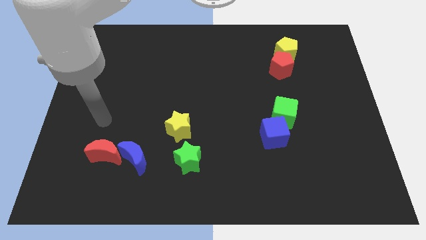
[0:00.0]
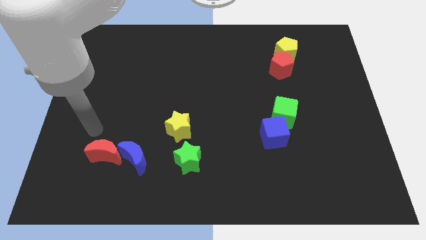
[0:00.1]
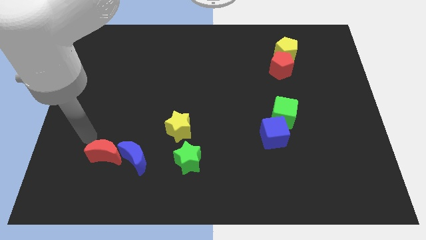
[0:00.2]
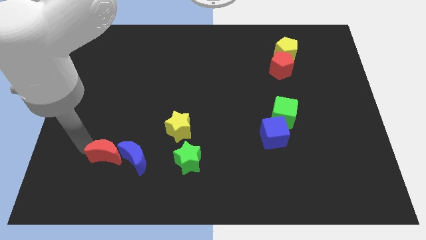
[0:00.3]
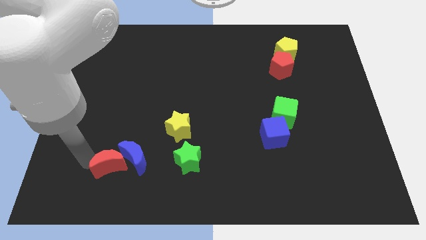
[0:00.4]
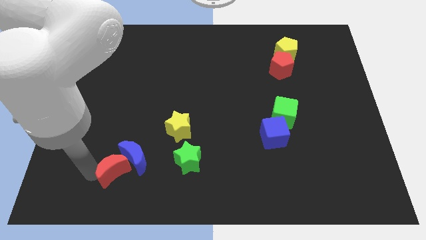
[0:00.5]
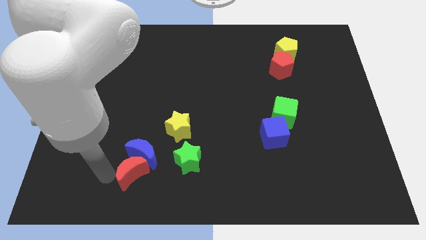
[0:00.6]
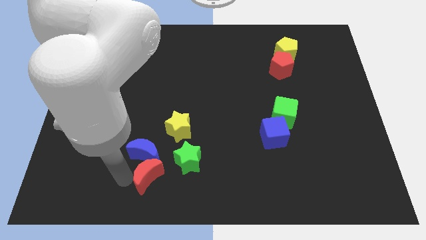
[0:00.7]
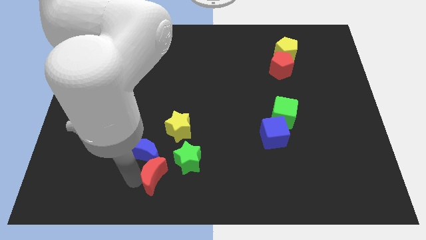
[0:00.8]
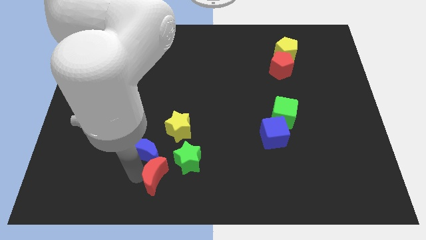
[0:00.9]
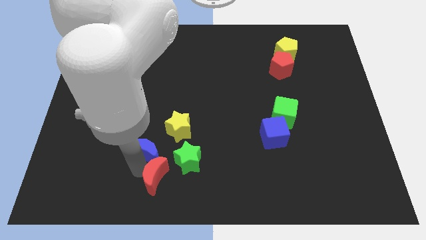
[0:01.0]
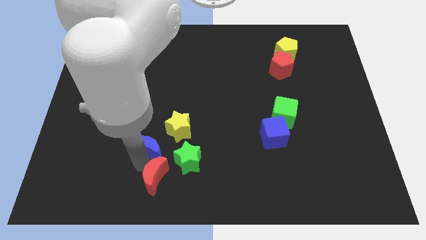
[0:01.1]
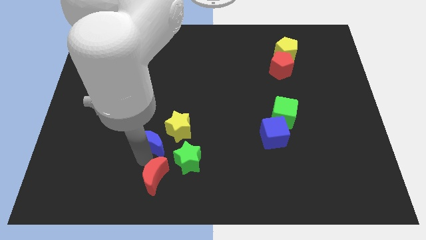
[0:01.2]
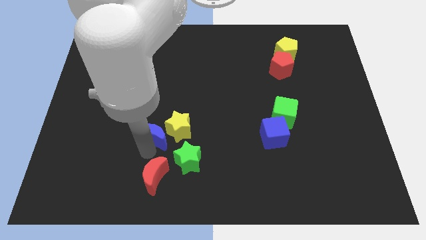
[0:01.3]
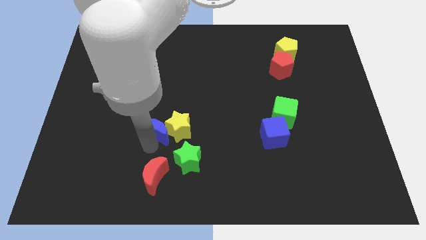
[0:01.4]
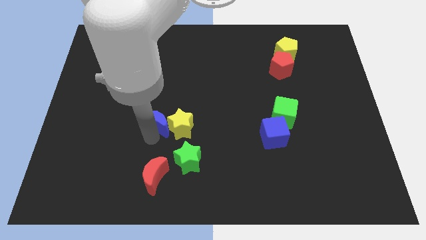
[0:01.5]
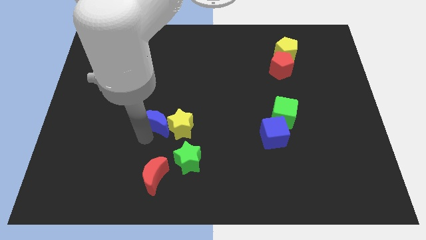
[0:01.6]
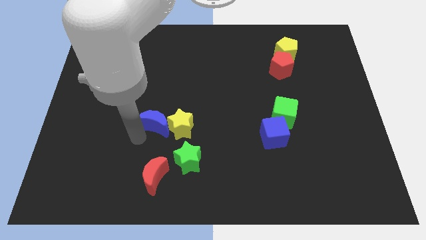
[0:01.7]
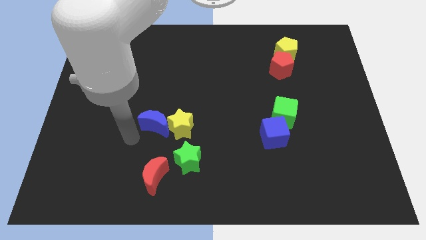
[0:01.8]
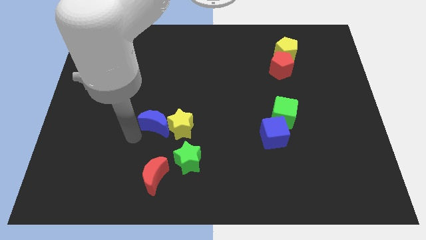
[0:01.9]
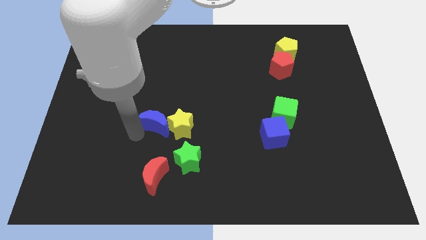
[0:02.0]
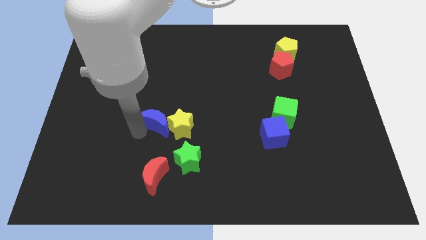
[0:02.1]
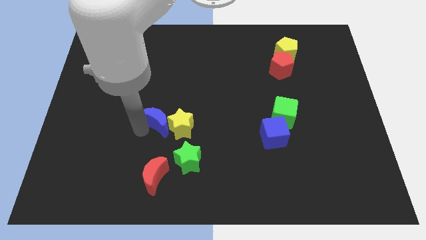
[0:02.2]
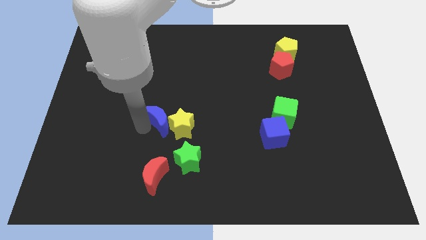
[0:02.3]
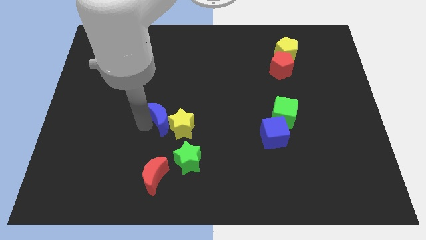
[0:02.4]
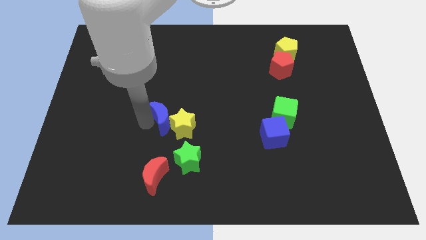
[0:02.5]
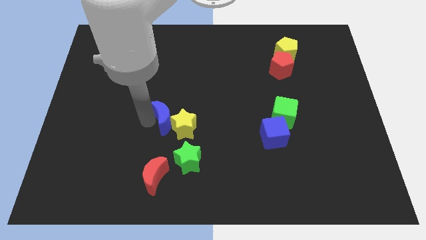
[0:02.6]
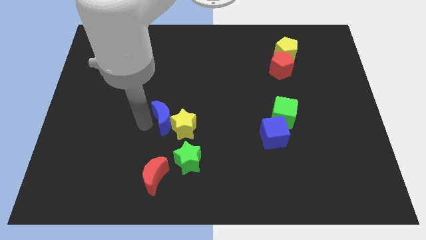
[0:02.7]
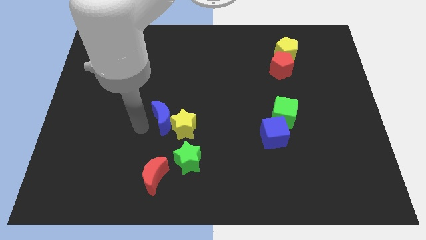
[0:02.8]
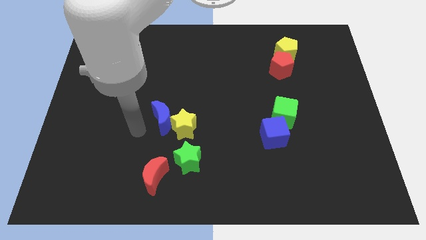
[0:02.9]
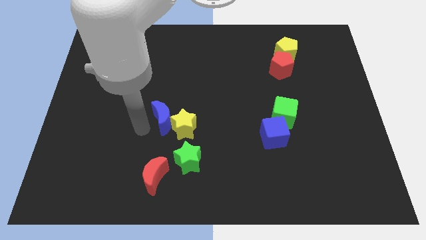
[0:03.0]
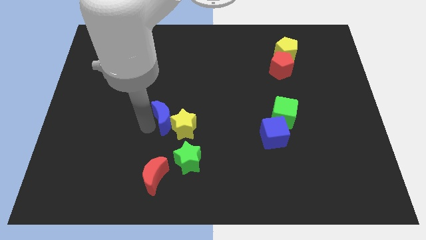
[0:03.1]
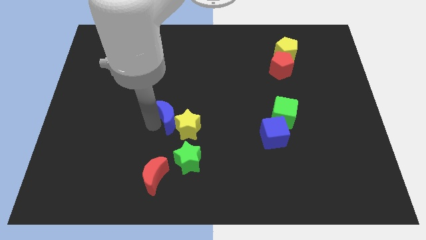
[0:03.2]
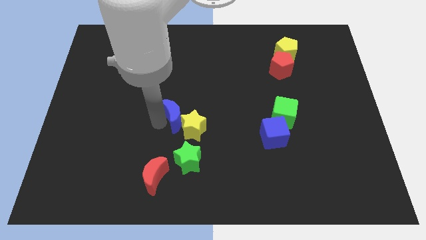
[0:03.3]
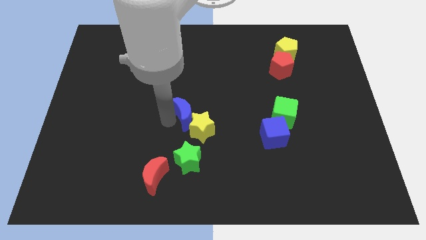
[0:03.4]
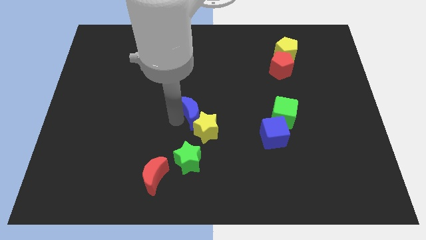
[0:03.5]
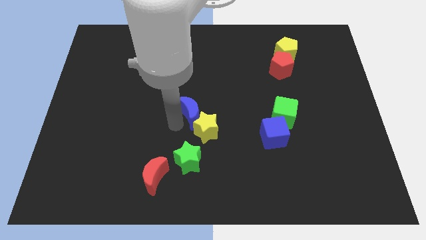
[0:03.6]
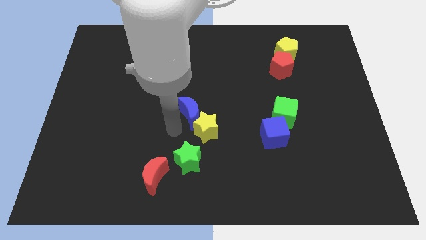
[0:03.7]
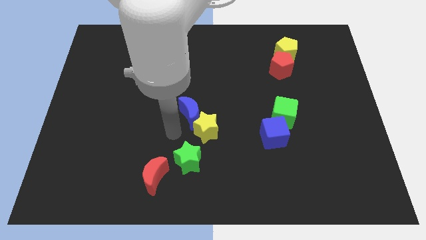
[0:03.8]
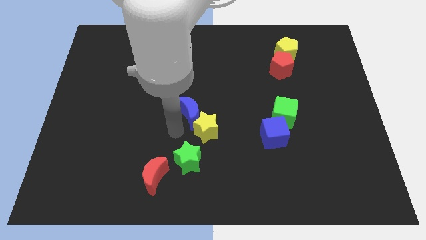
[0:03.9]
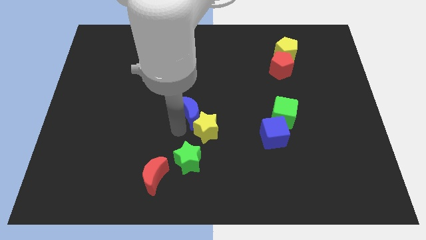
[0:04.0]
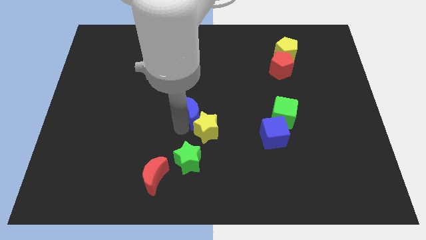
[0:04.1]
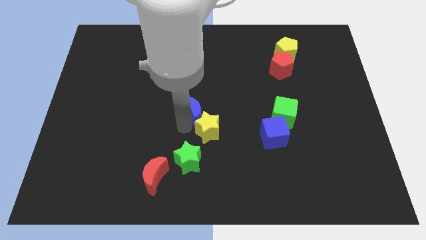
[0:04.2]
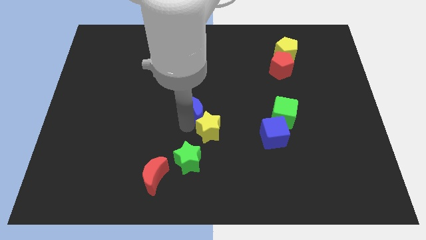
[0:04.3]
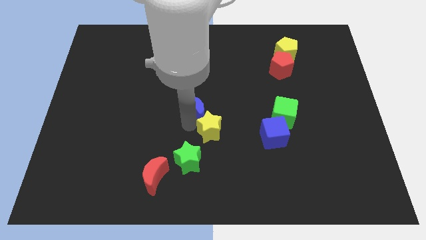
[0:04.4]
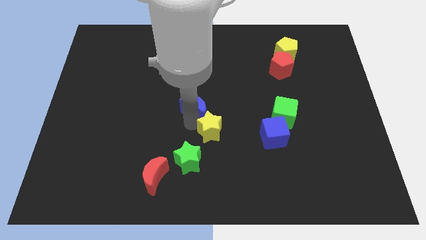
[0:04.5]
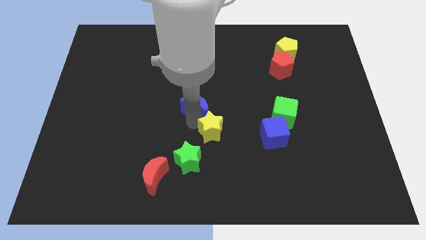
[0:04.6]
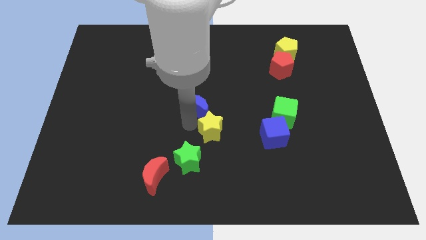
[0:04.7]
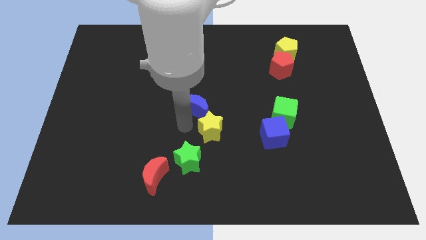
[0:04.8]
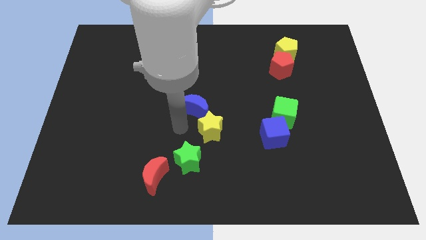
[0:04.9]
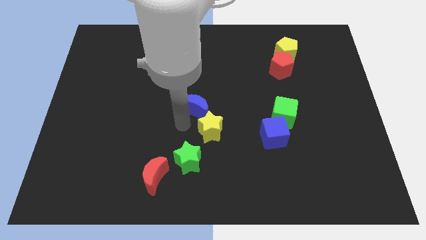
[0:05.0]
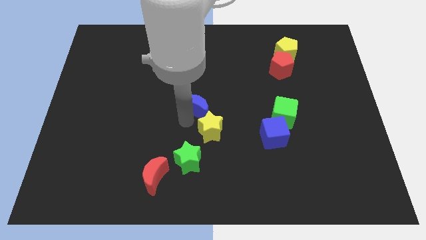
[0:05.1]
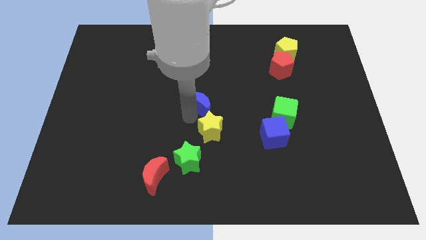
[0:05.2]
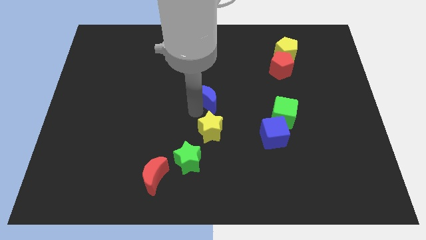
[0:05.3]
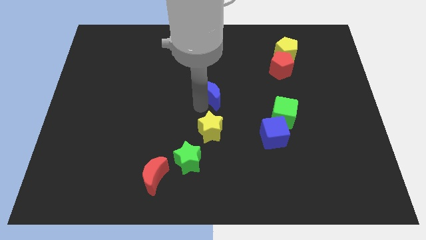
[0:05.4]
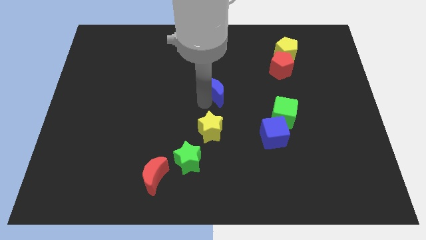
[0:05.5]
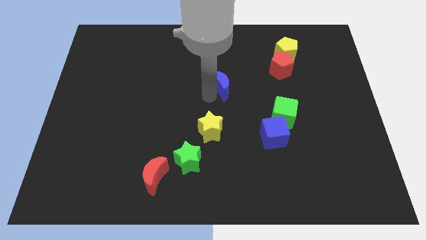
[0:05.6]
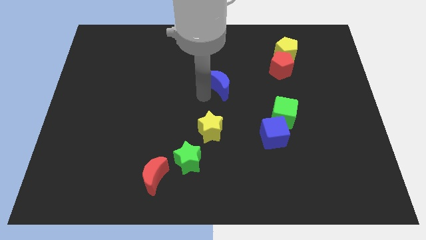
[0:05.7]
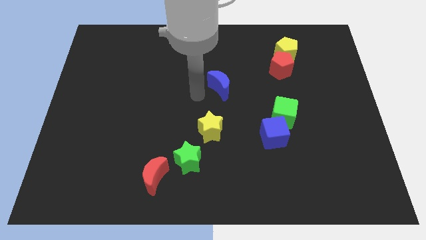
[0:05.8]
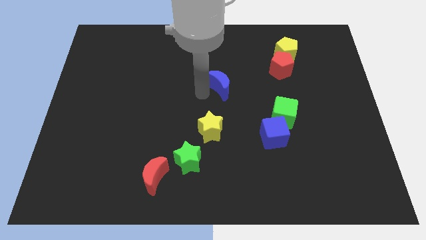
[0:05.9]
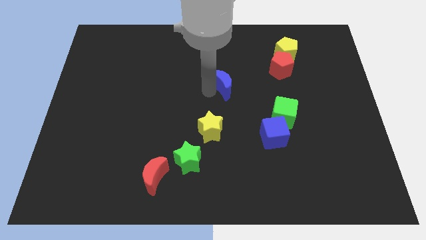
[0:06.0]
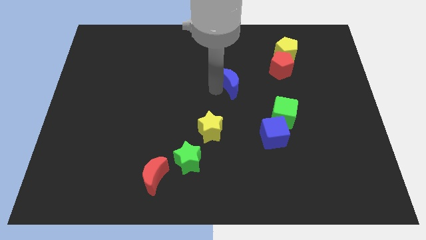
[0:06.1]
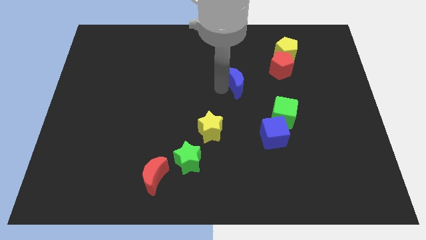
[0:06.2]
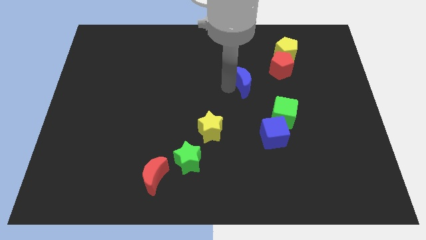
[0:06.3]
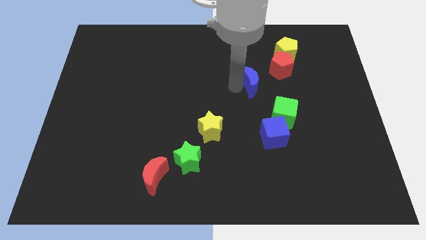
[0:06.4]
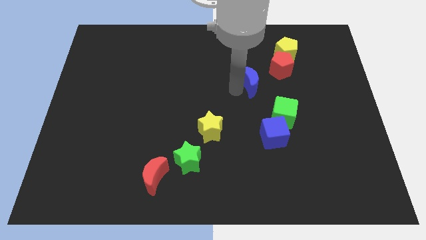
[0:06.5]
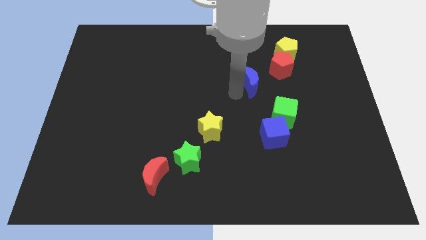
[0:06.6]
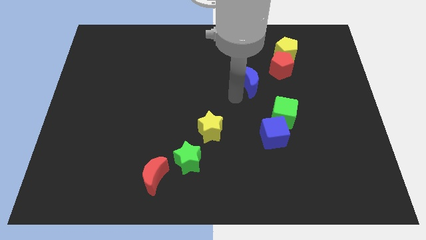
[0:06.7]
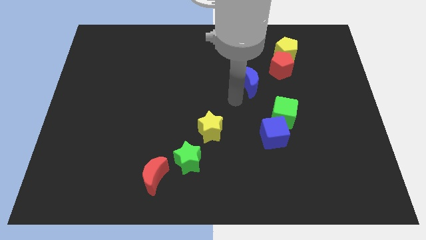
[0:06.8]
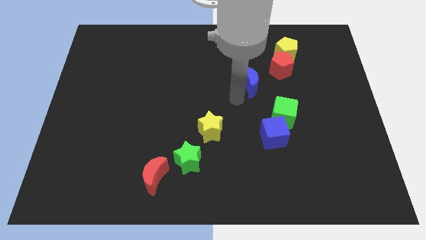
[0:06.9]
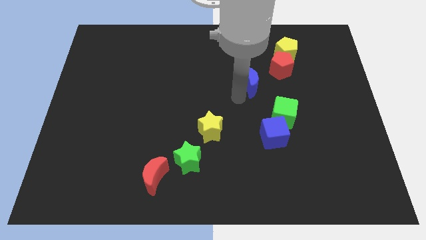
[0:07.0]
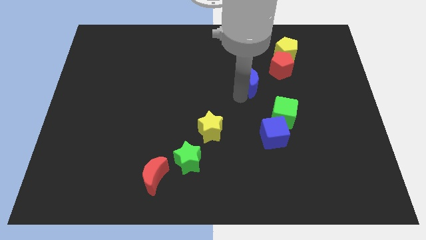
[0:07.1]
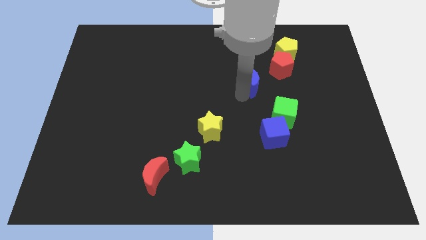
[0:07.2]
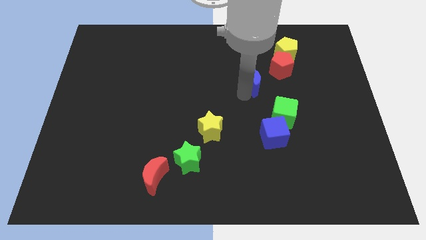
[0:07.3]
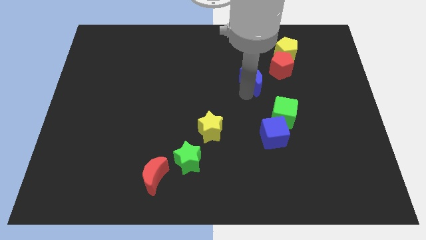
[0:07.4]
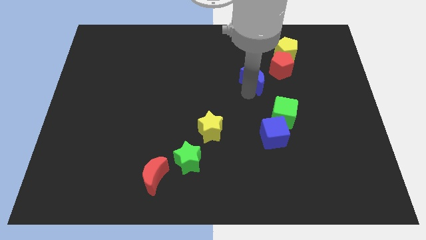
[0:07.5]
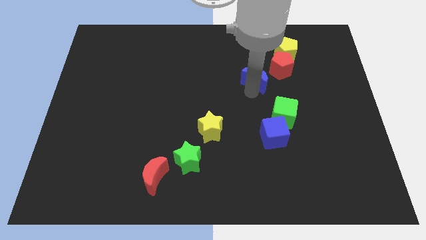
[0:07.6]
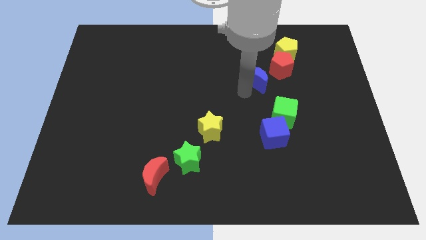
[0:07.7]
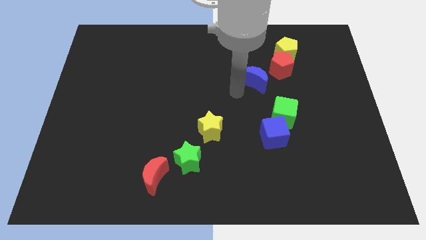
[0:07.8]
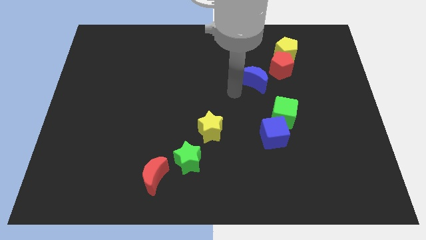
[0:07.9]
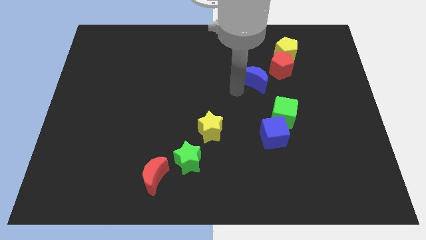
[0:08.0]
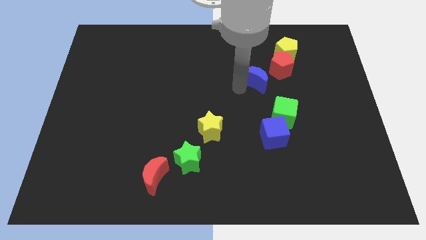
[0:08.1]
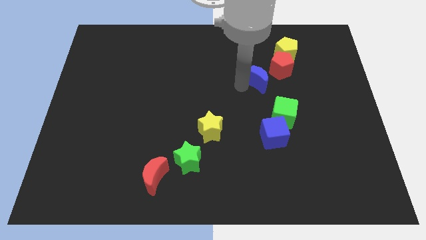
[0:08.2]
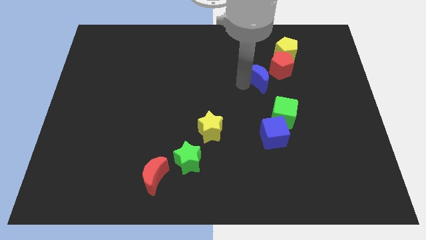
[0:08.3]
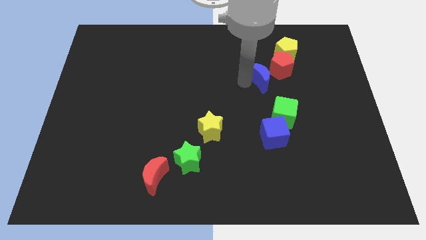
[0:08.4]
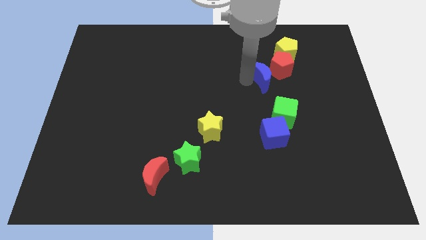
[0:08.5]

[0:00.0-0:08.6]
put the blue moon close to the red pentagon
